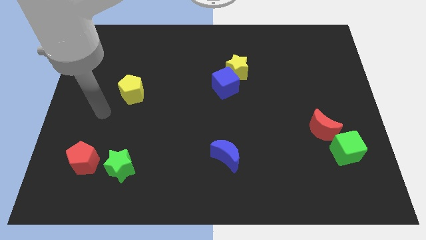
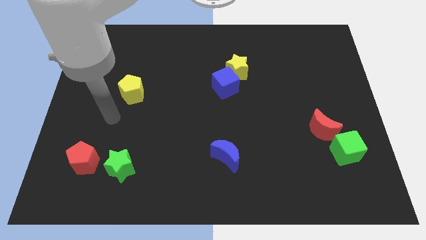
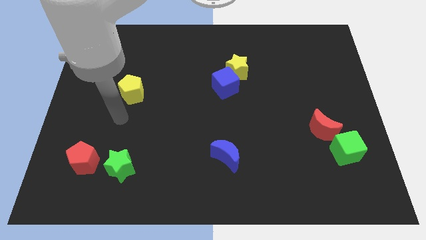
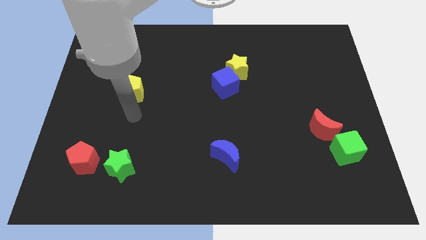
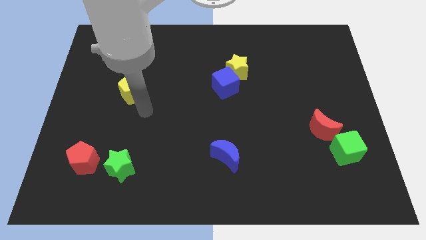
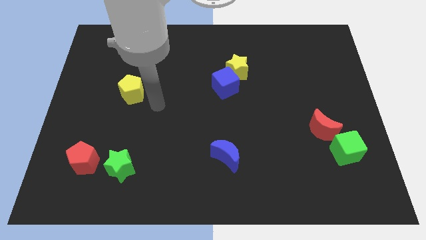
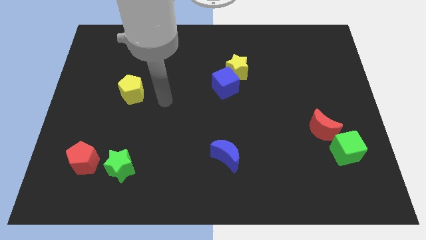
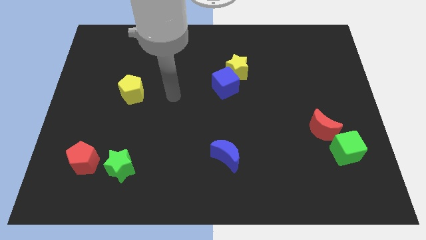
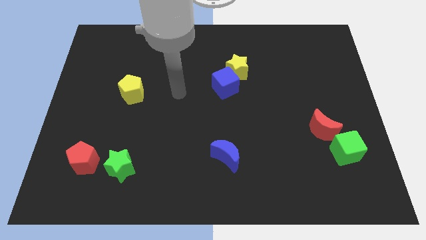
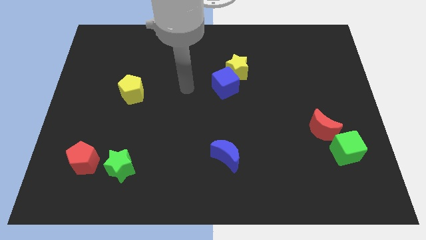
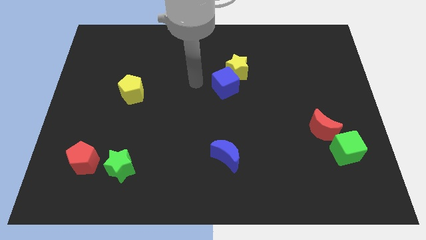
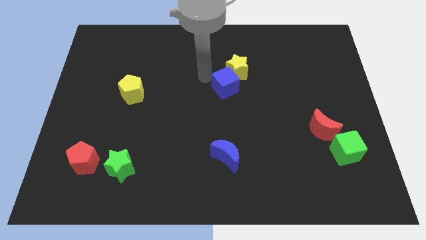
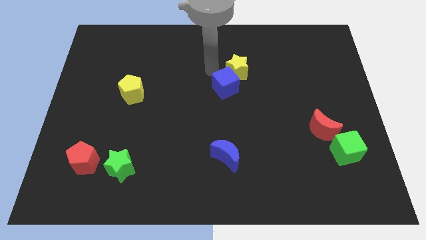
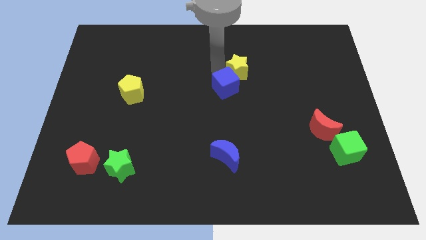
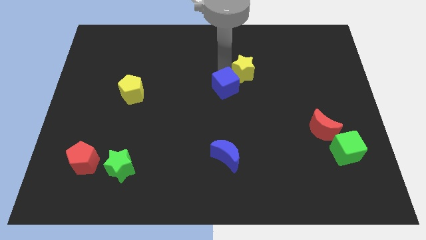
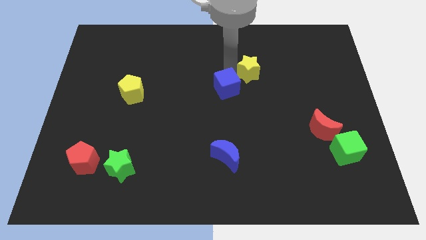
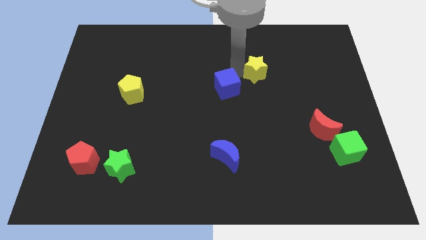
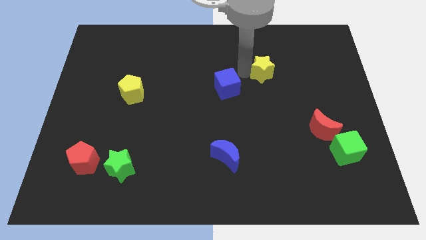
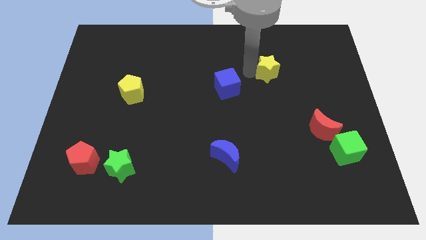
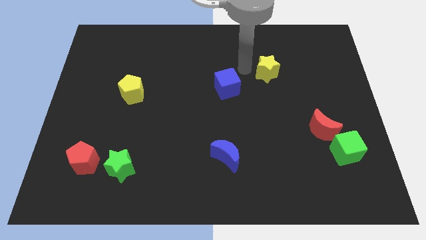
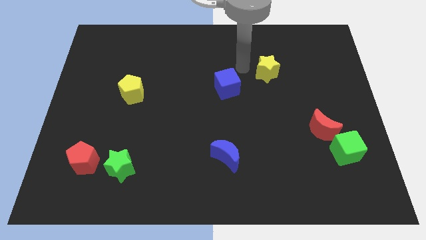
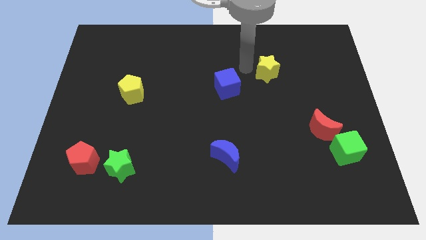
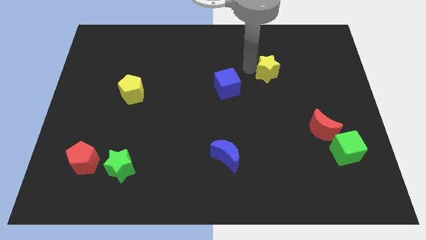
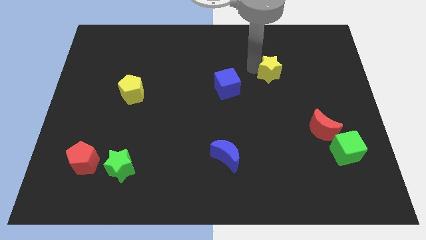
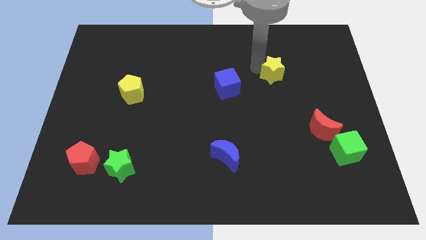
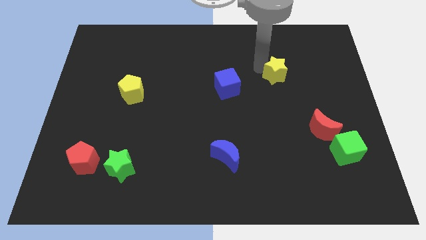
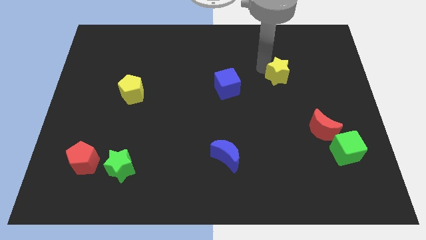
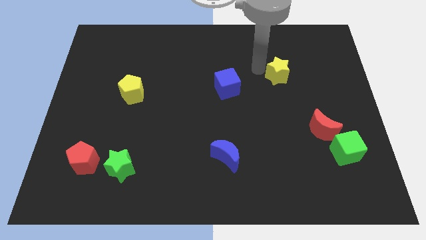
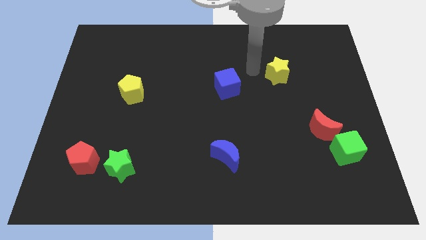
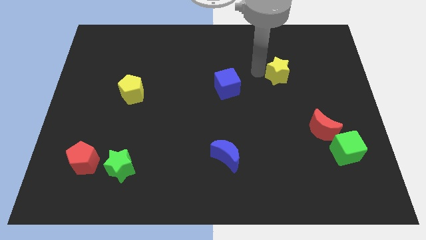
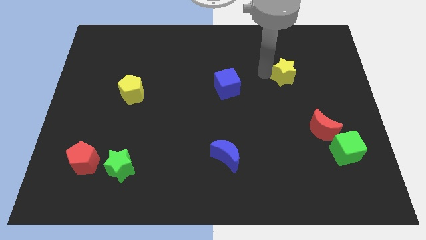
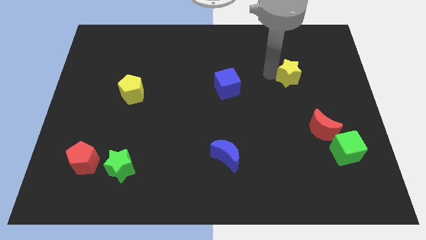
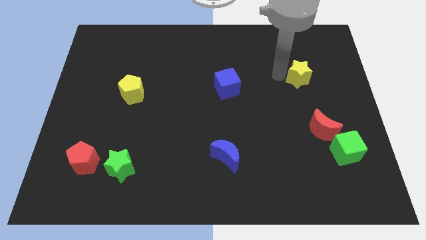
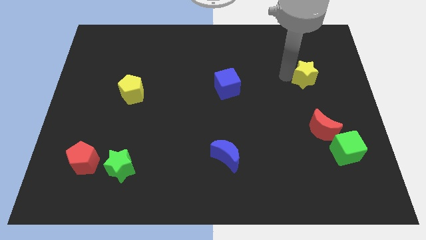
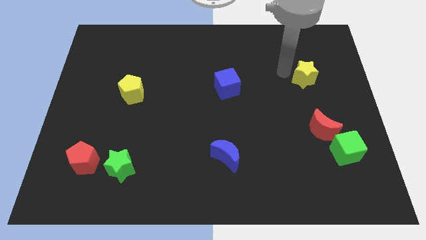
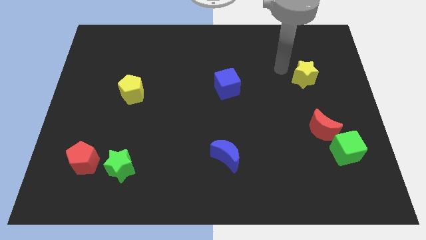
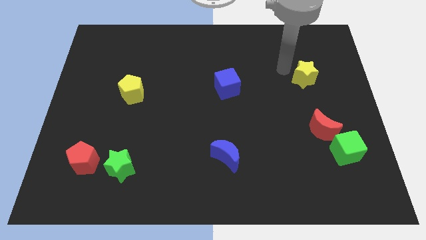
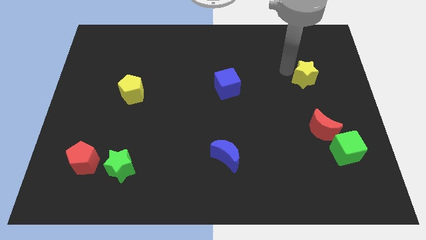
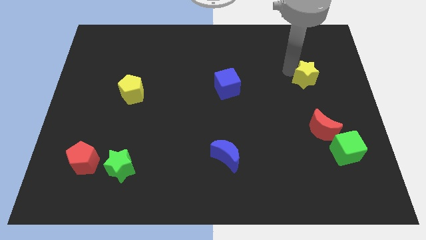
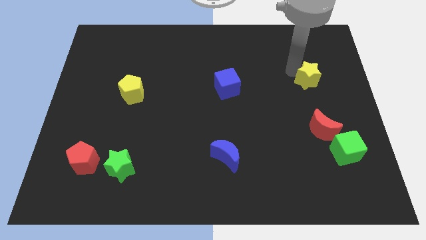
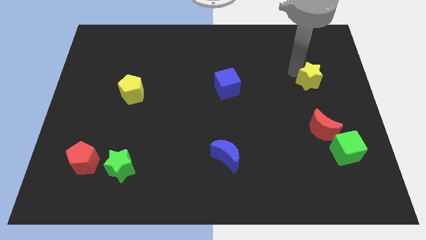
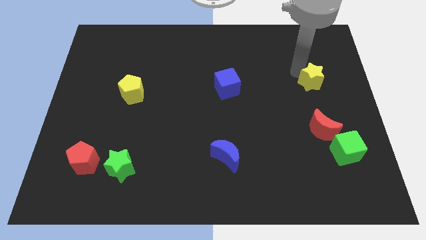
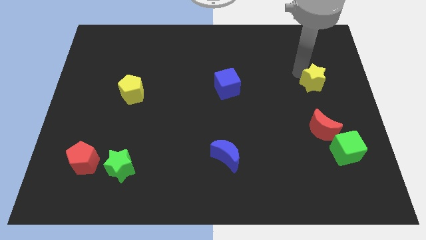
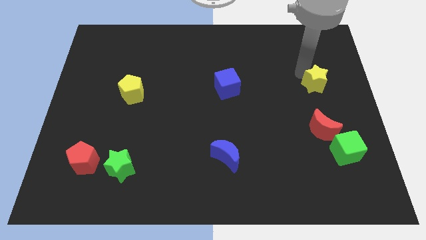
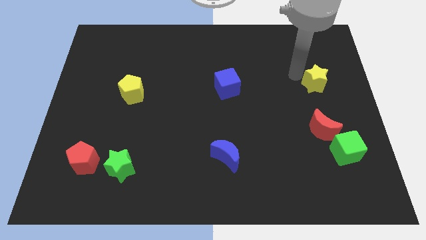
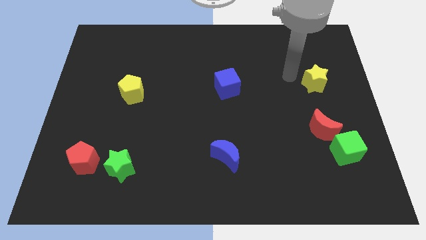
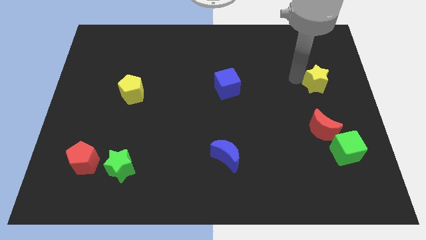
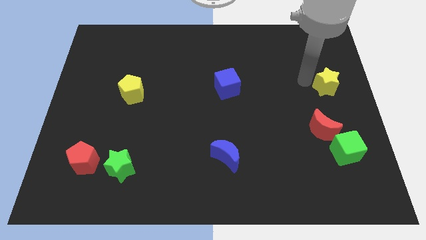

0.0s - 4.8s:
push the yellow star to the right side of the board

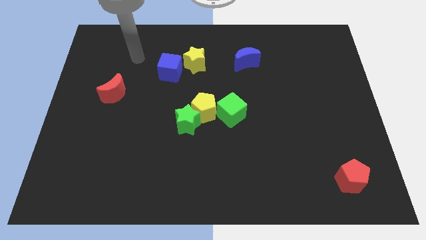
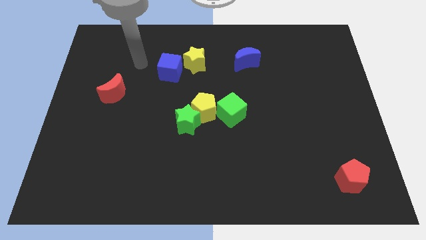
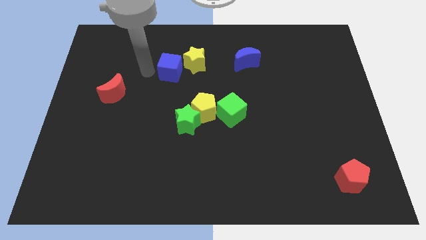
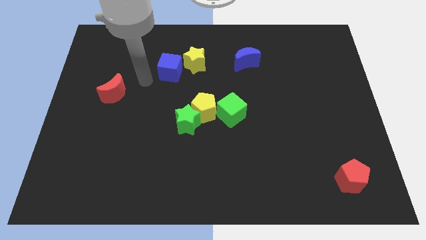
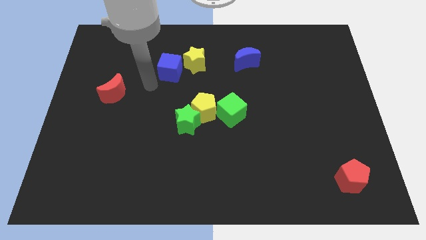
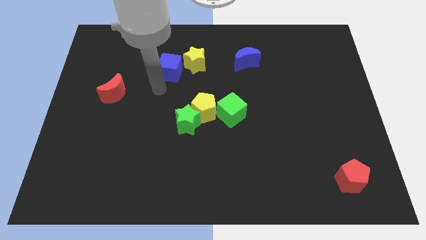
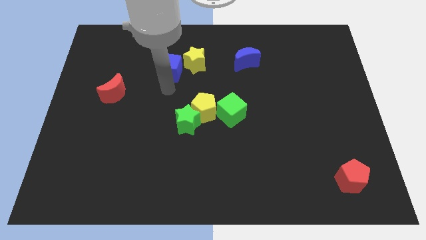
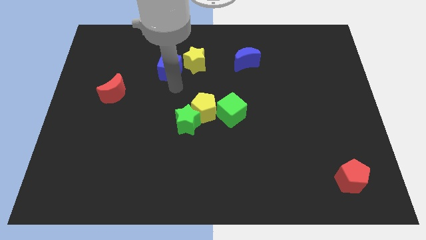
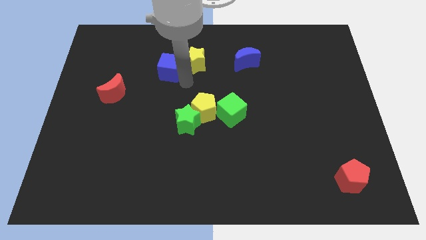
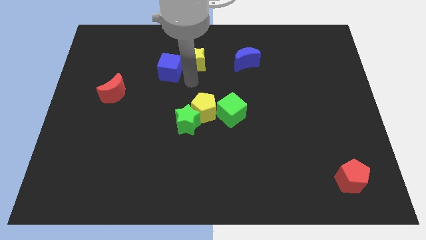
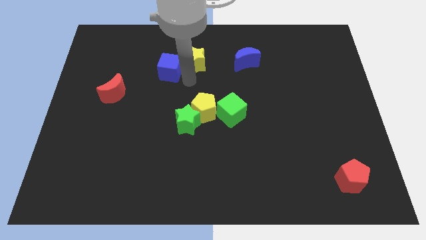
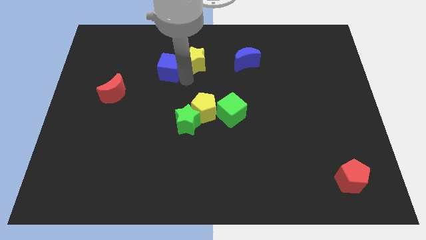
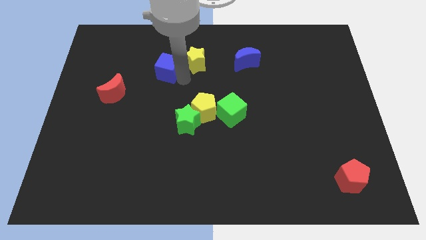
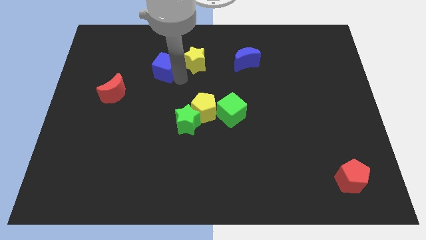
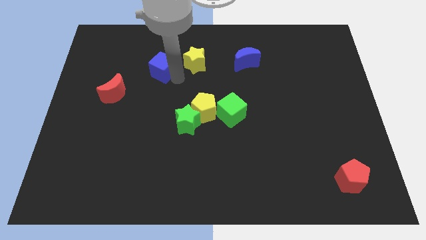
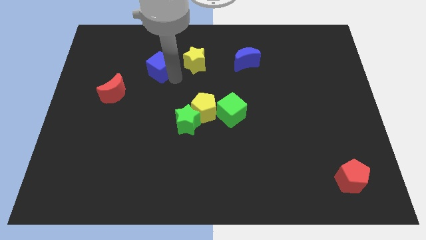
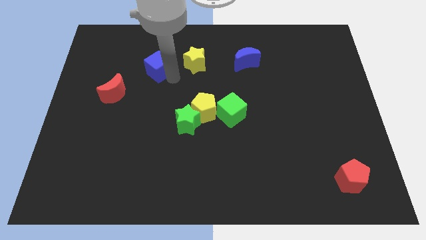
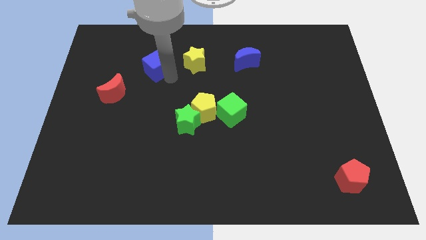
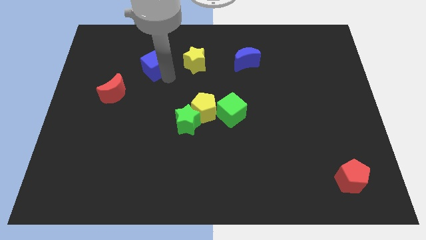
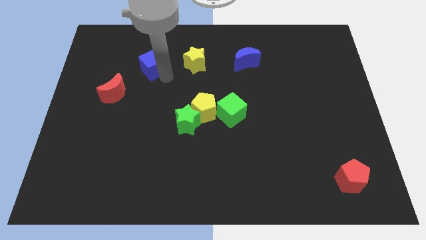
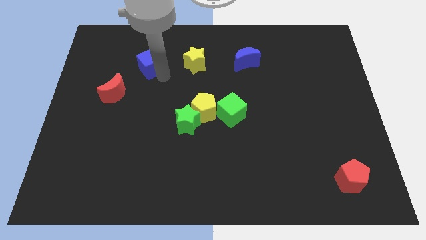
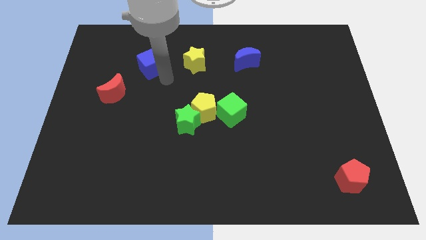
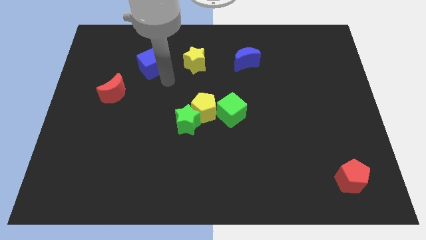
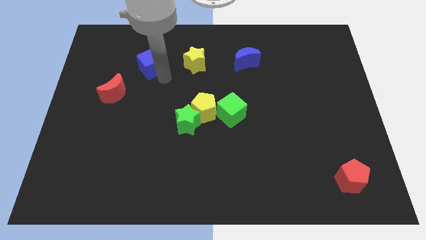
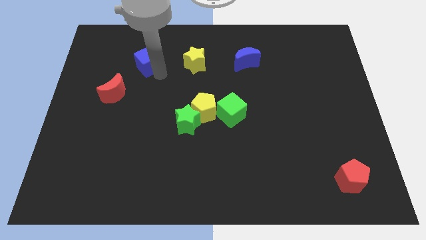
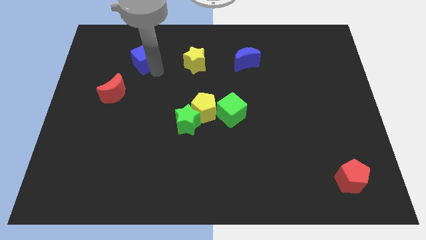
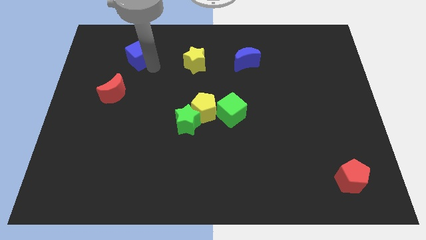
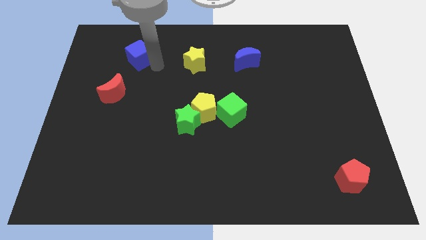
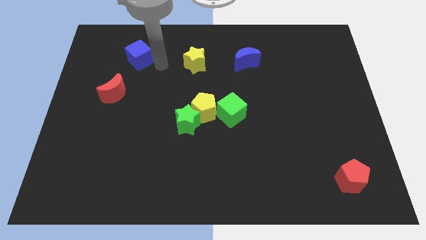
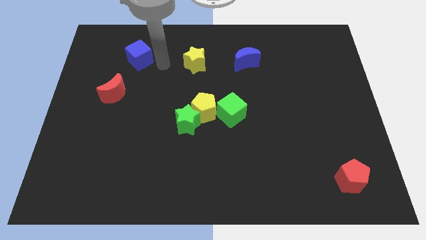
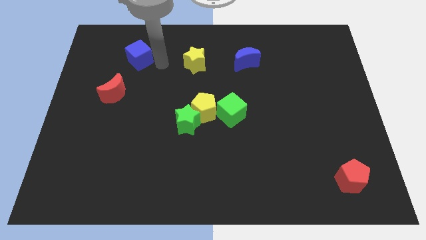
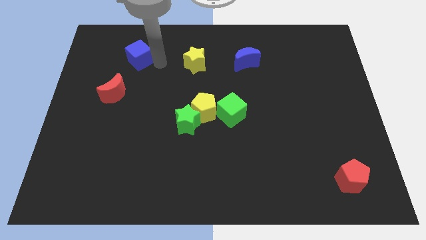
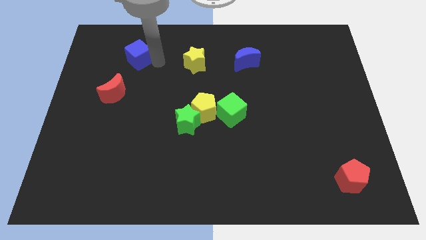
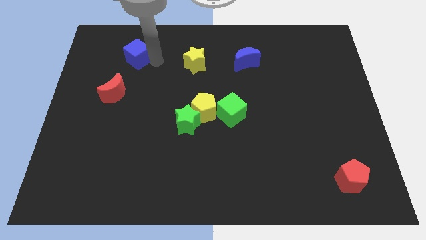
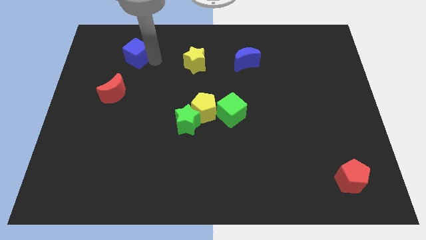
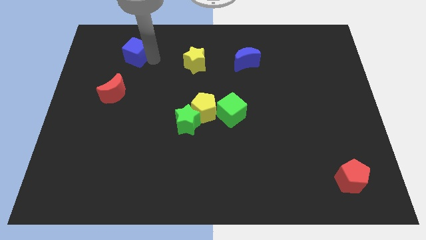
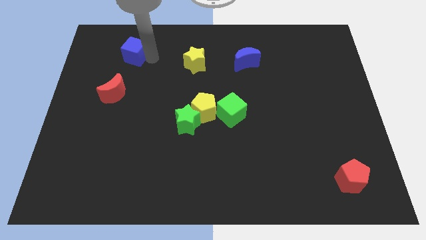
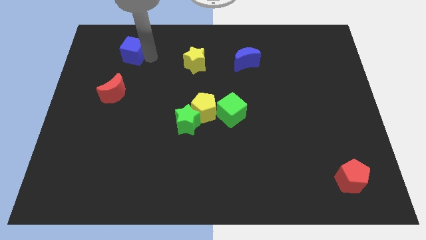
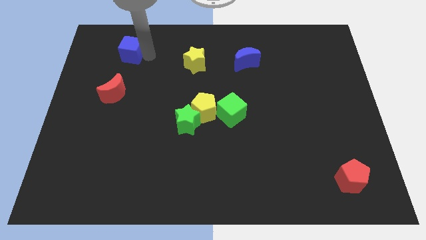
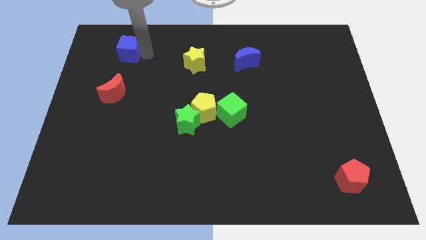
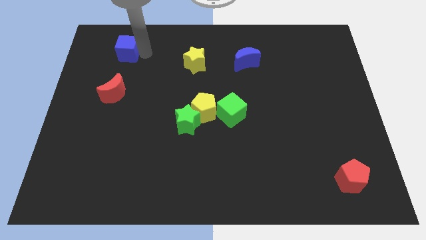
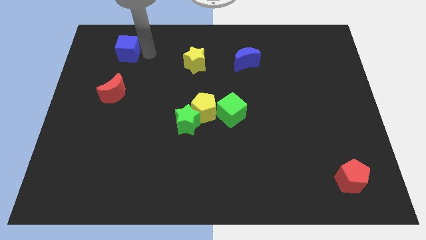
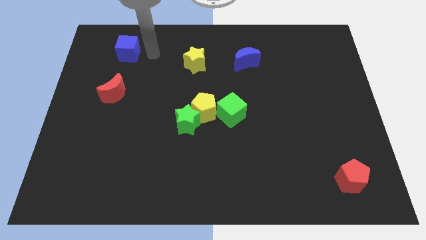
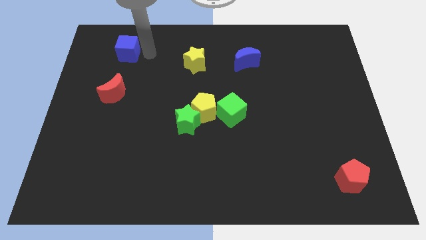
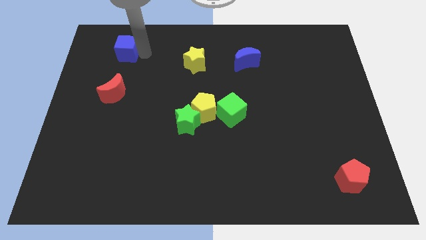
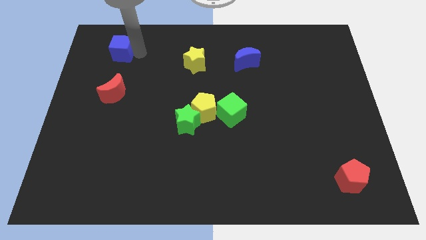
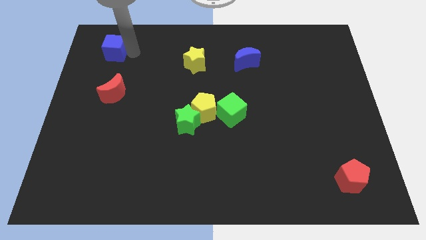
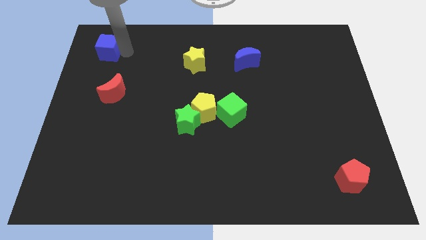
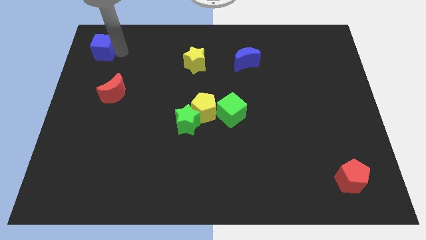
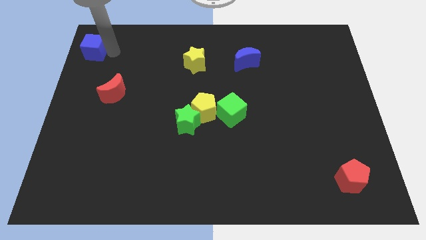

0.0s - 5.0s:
move the blue cube to the top left of the board
